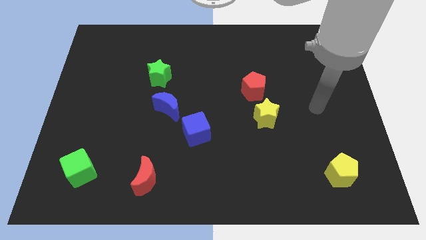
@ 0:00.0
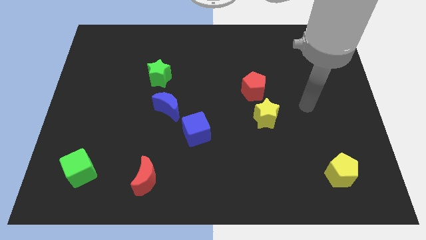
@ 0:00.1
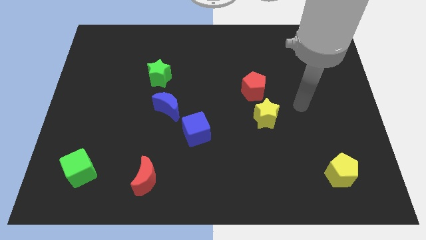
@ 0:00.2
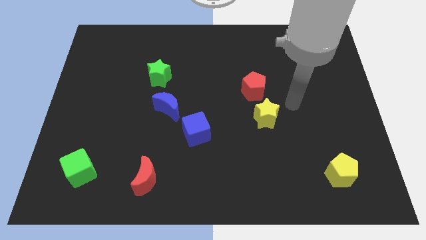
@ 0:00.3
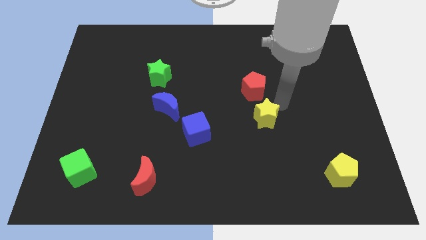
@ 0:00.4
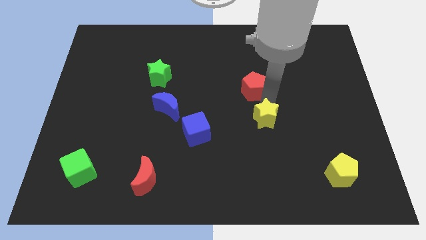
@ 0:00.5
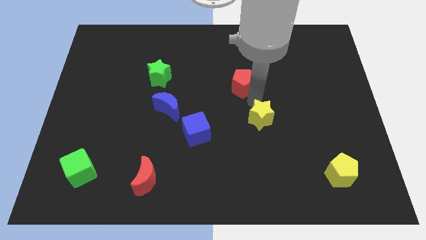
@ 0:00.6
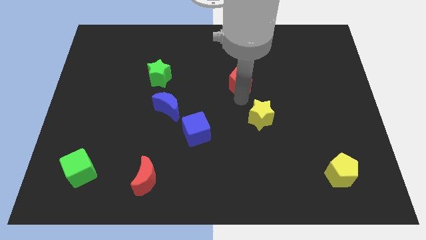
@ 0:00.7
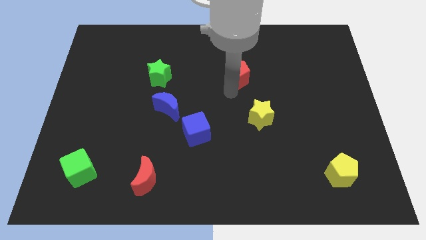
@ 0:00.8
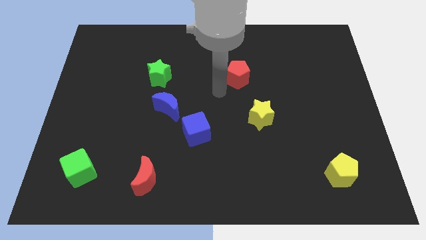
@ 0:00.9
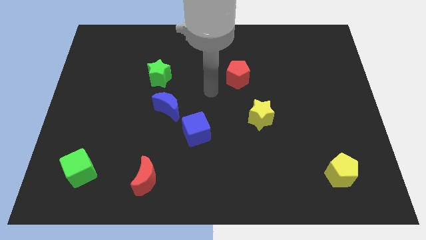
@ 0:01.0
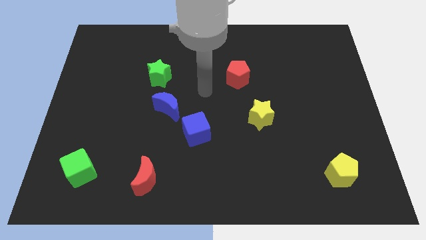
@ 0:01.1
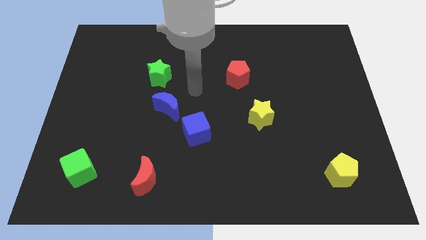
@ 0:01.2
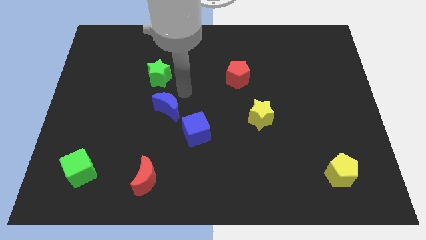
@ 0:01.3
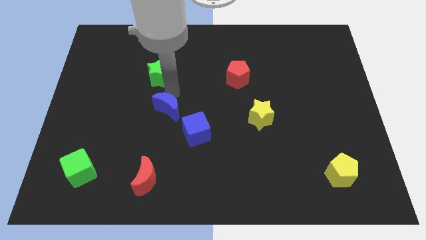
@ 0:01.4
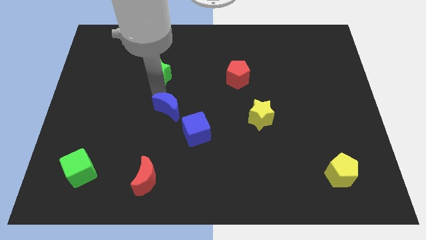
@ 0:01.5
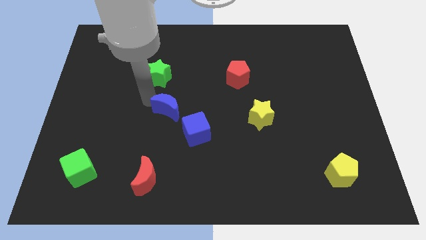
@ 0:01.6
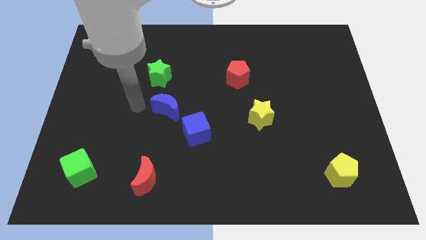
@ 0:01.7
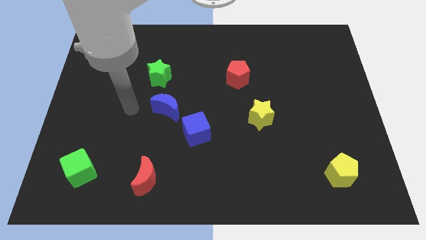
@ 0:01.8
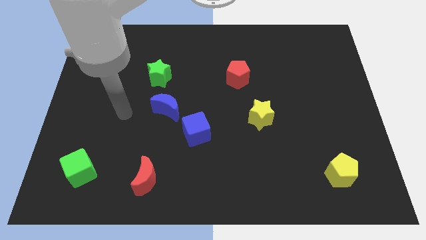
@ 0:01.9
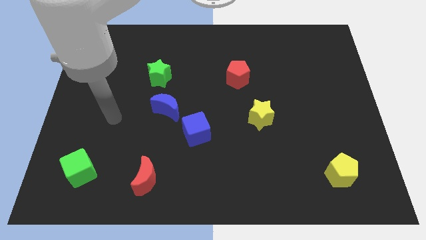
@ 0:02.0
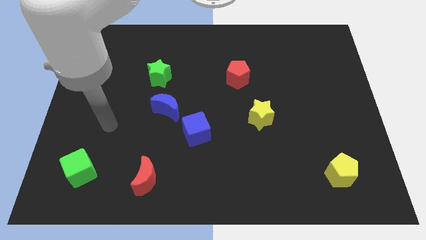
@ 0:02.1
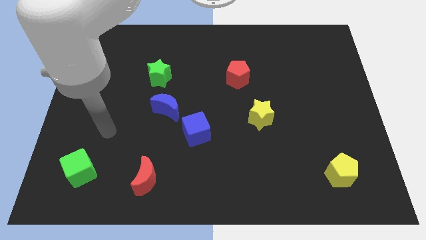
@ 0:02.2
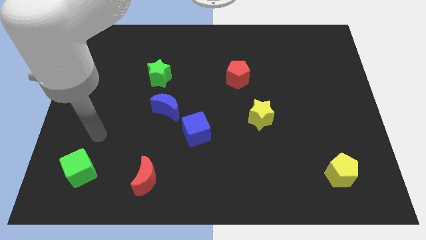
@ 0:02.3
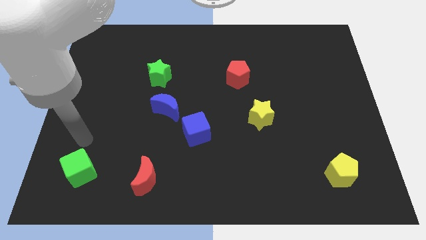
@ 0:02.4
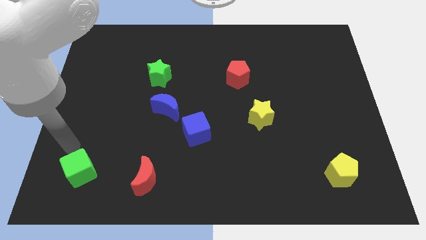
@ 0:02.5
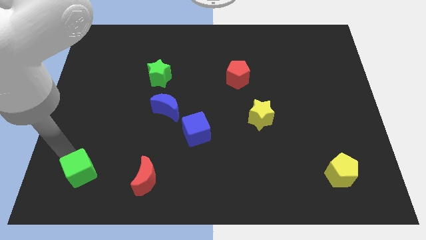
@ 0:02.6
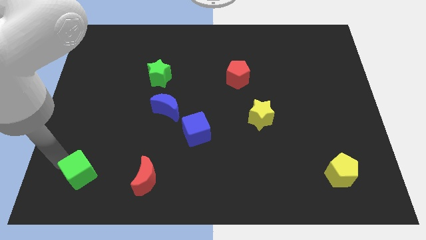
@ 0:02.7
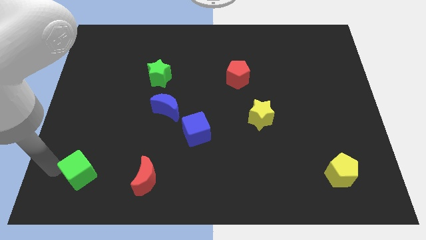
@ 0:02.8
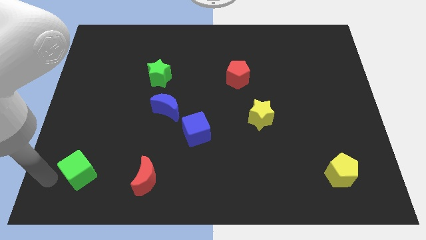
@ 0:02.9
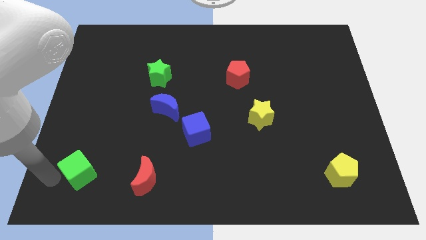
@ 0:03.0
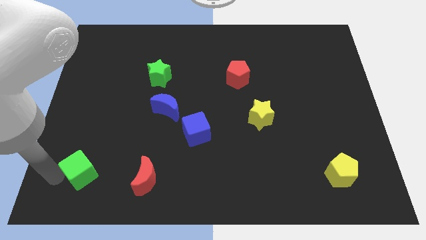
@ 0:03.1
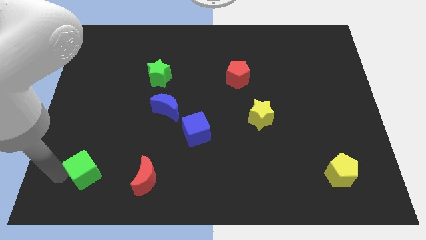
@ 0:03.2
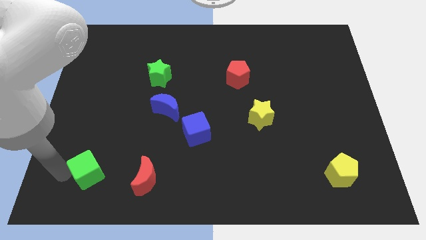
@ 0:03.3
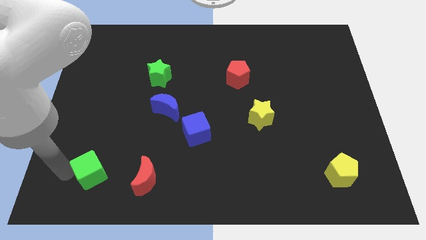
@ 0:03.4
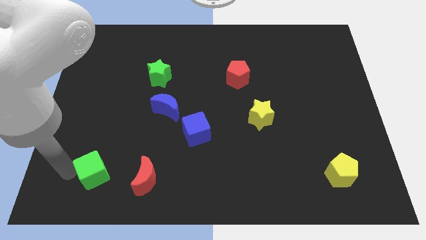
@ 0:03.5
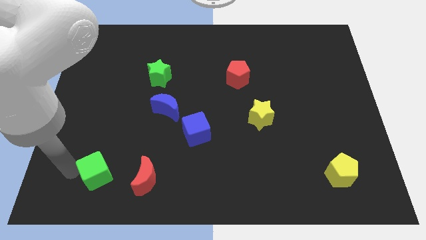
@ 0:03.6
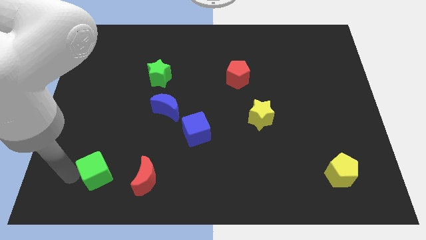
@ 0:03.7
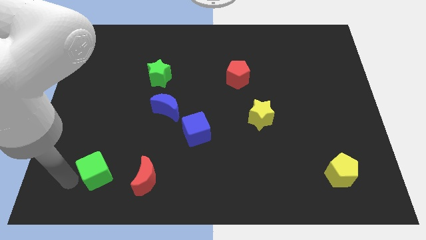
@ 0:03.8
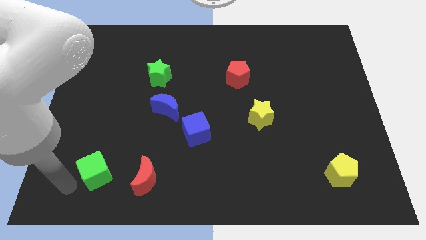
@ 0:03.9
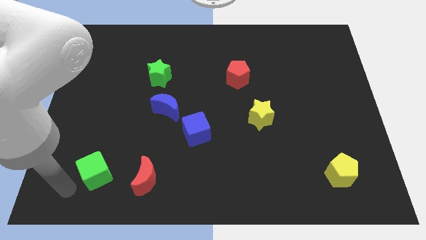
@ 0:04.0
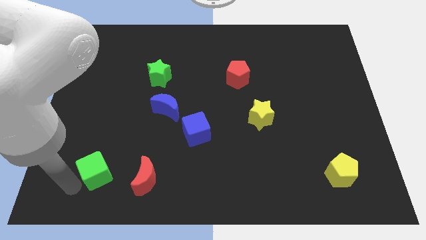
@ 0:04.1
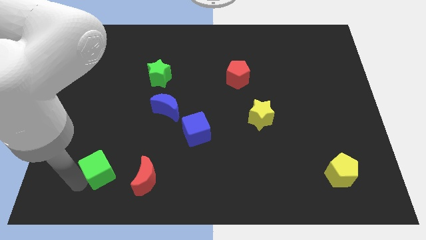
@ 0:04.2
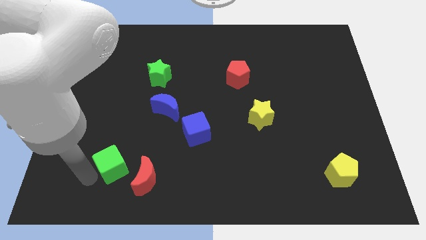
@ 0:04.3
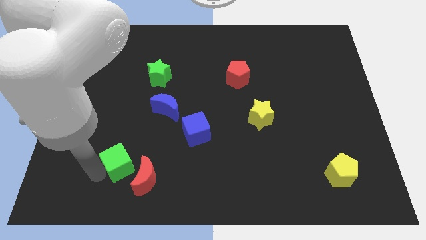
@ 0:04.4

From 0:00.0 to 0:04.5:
move the green cube a bit right

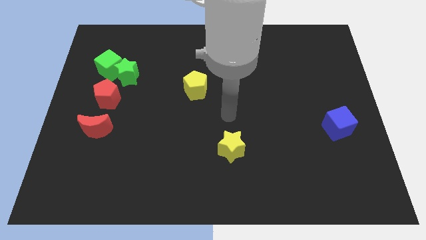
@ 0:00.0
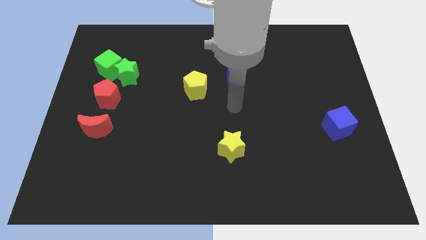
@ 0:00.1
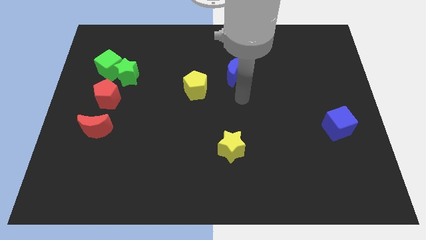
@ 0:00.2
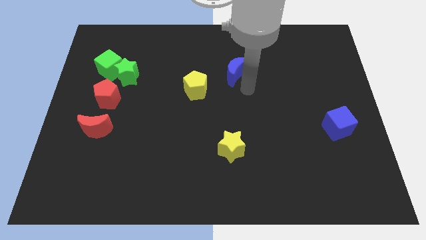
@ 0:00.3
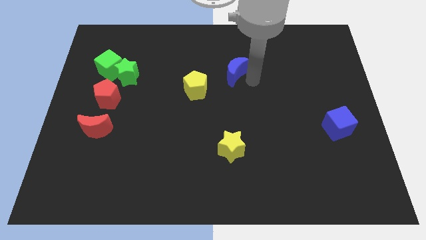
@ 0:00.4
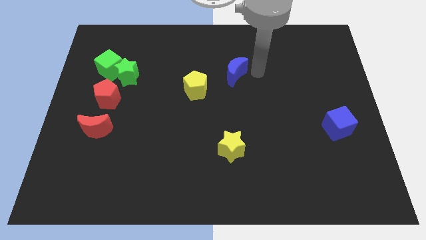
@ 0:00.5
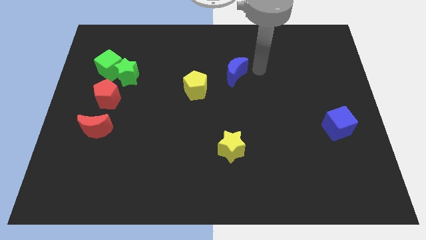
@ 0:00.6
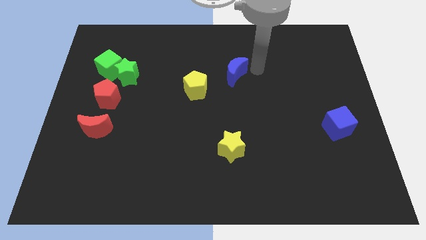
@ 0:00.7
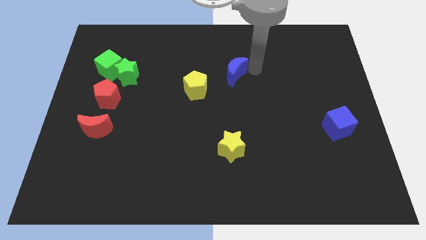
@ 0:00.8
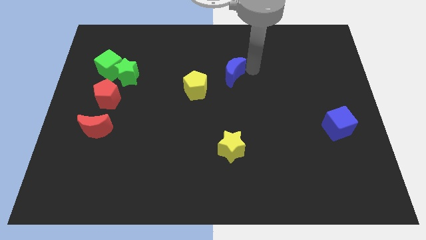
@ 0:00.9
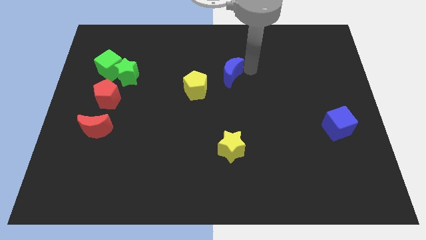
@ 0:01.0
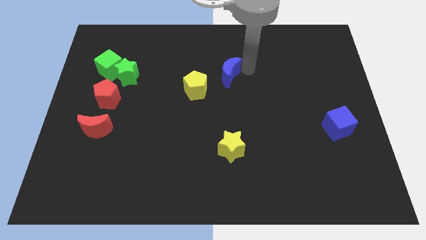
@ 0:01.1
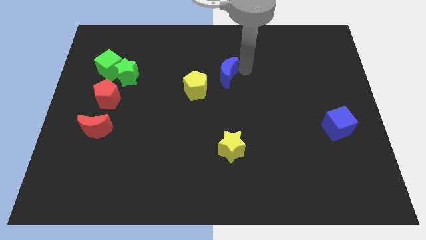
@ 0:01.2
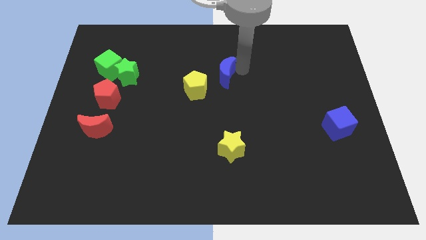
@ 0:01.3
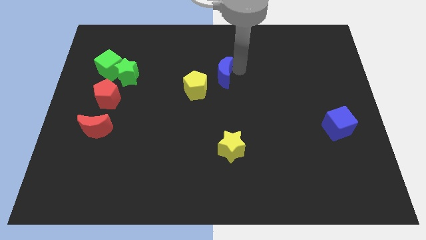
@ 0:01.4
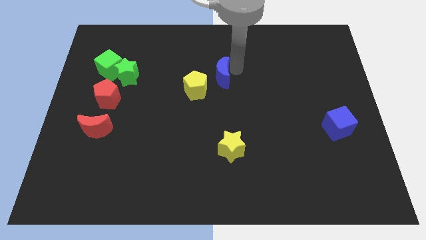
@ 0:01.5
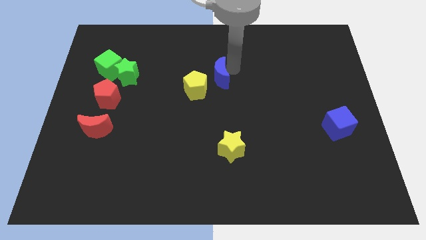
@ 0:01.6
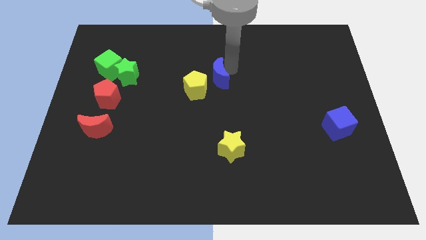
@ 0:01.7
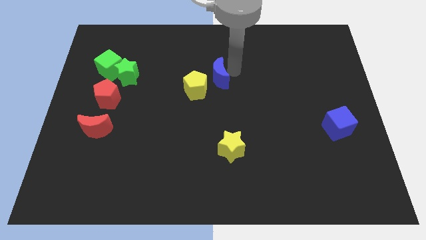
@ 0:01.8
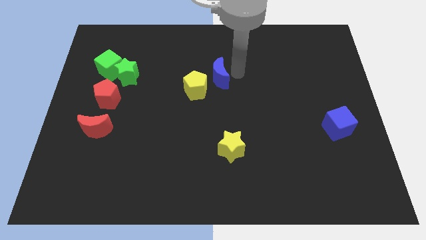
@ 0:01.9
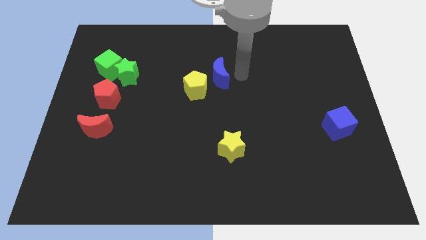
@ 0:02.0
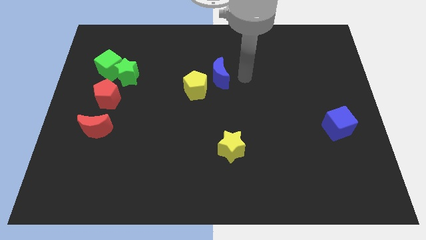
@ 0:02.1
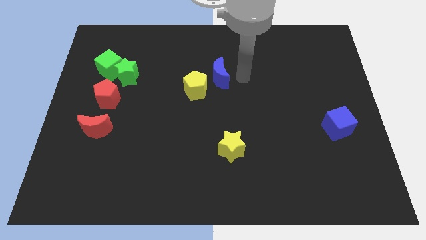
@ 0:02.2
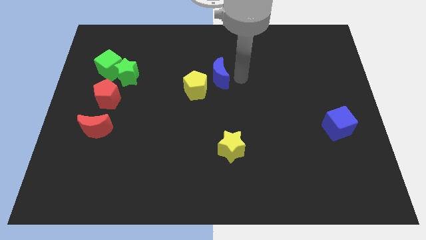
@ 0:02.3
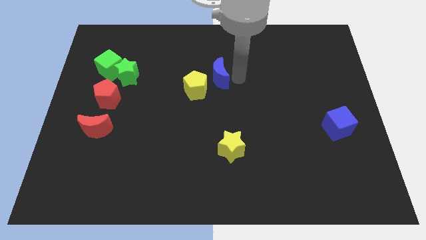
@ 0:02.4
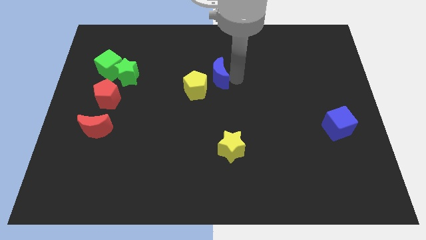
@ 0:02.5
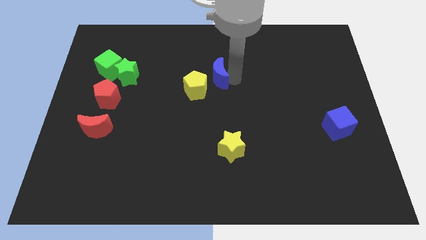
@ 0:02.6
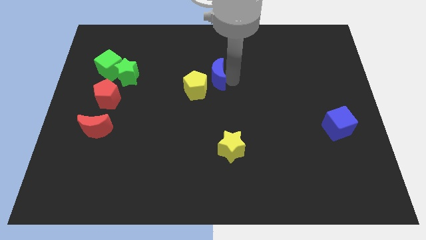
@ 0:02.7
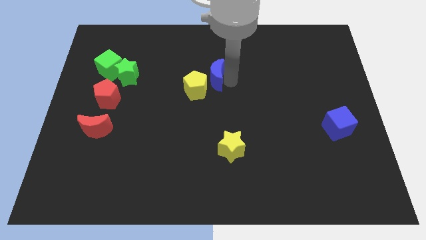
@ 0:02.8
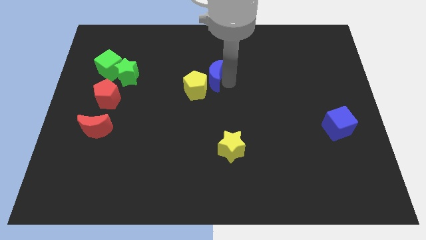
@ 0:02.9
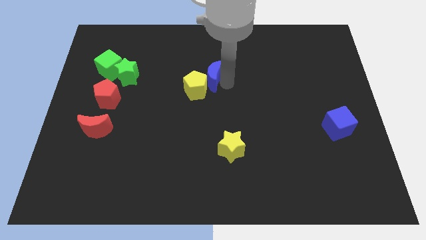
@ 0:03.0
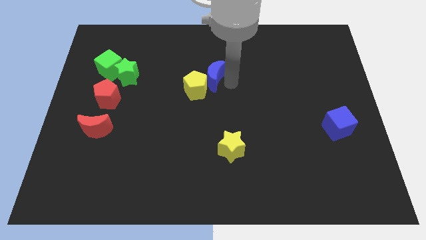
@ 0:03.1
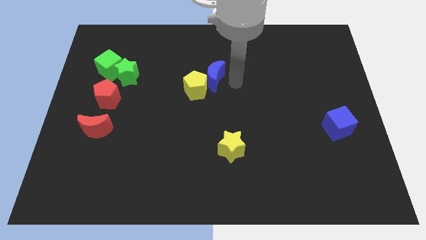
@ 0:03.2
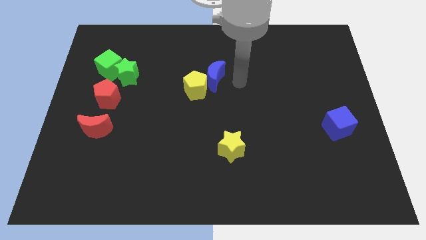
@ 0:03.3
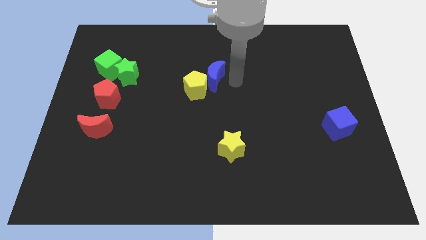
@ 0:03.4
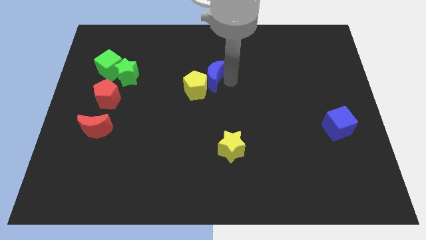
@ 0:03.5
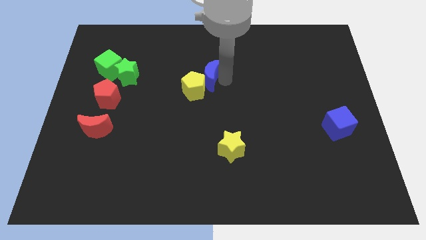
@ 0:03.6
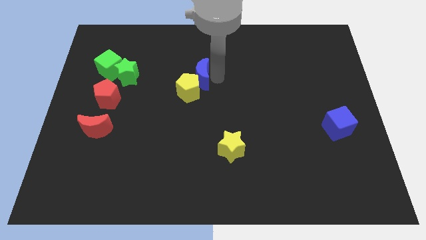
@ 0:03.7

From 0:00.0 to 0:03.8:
slightly slide the blue moon left
